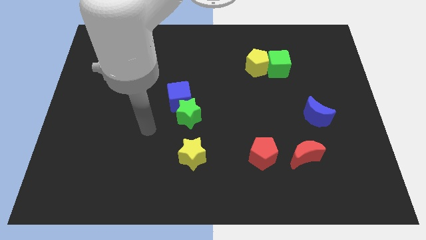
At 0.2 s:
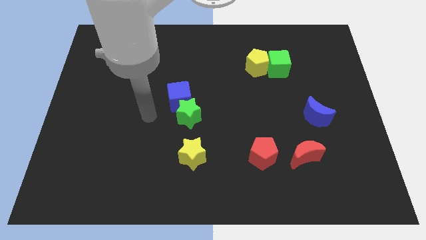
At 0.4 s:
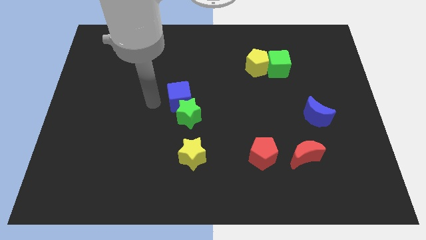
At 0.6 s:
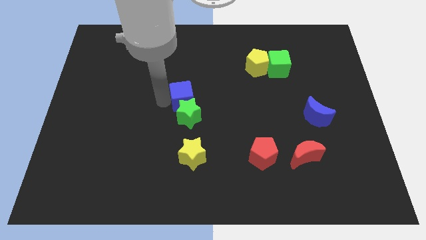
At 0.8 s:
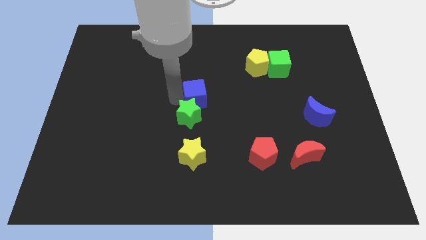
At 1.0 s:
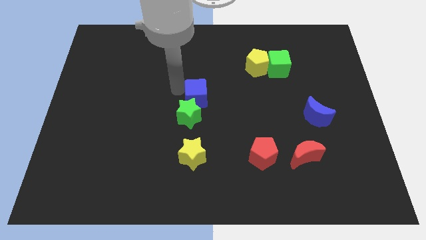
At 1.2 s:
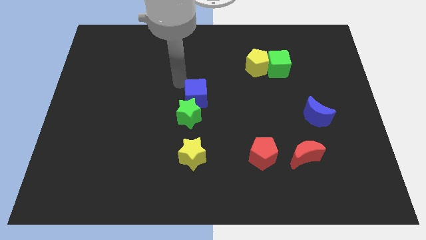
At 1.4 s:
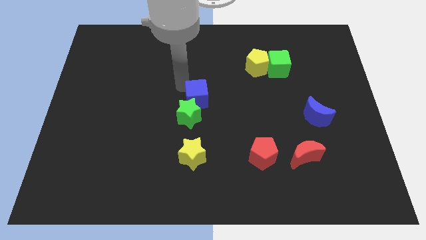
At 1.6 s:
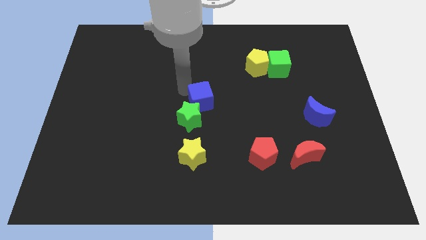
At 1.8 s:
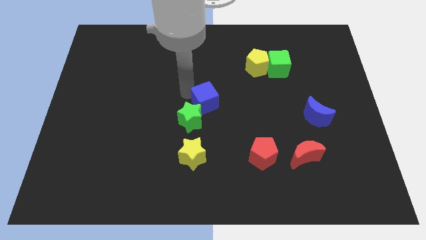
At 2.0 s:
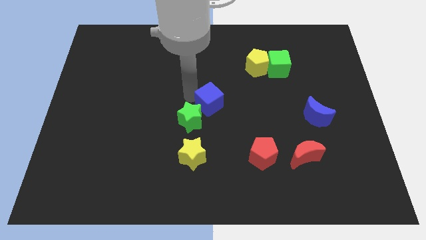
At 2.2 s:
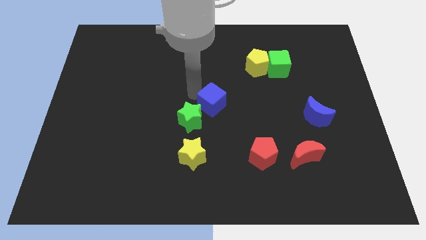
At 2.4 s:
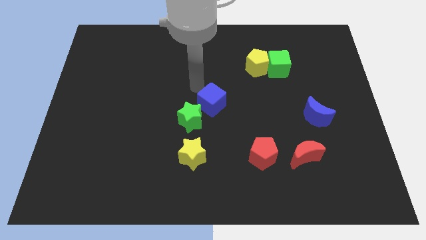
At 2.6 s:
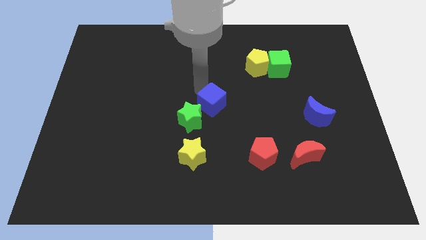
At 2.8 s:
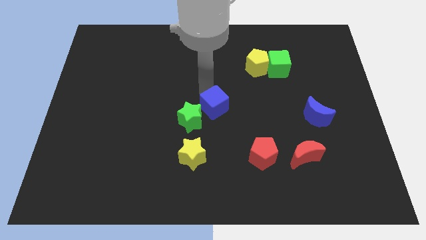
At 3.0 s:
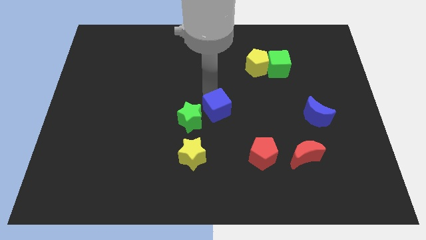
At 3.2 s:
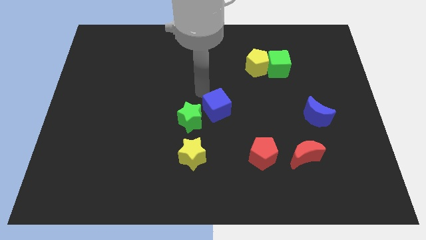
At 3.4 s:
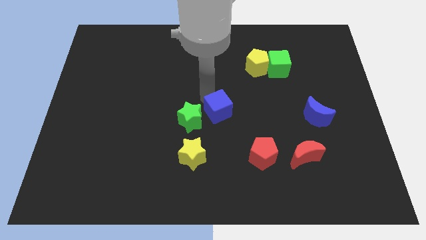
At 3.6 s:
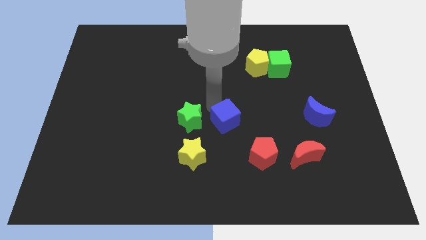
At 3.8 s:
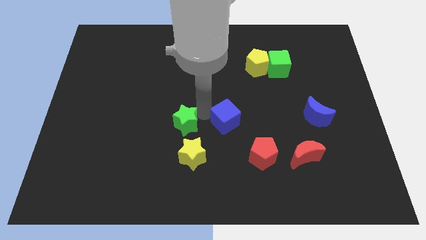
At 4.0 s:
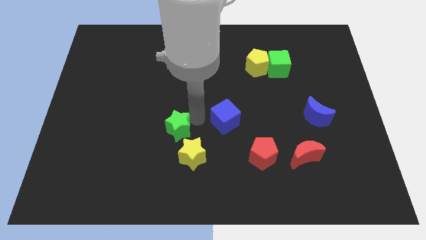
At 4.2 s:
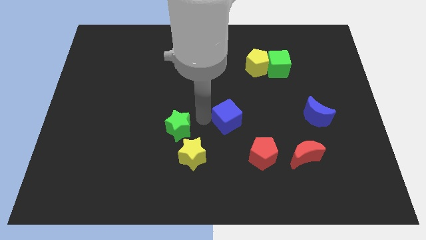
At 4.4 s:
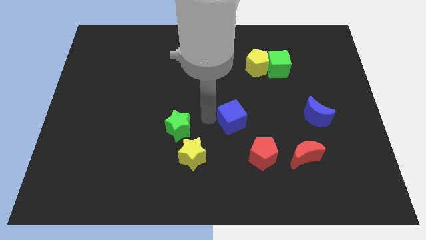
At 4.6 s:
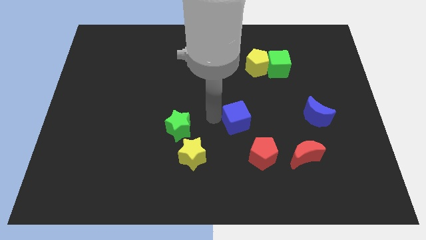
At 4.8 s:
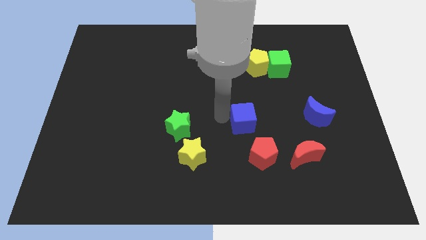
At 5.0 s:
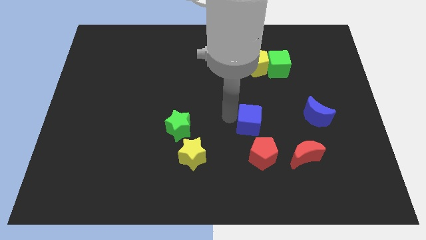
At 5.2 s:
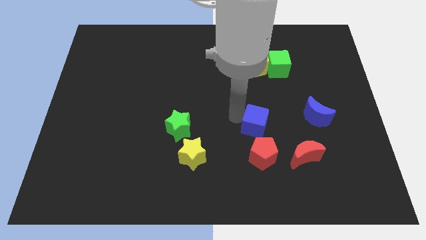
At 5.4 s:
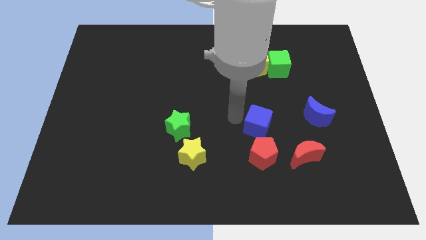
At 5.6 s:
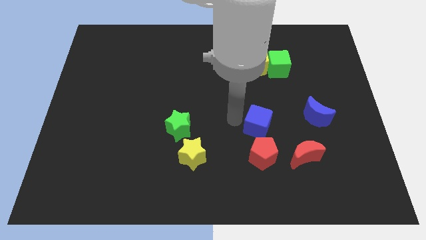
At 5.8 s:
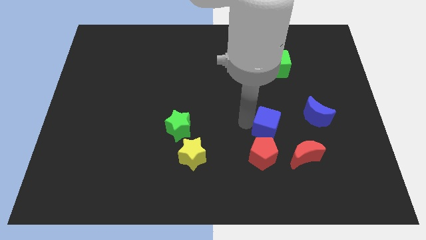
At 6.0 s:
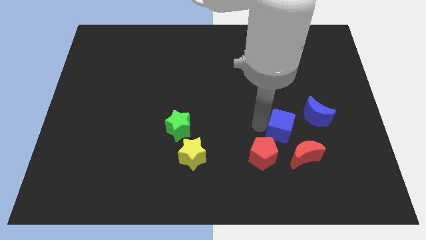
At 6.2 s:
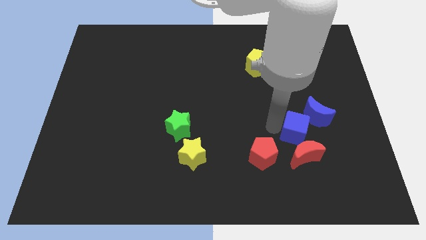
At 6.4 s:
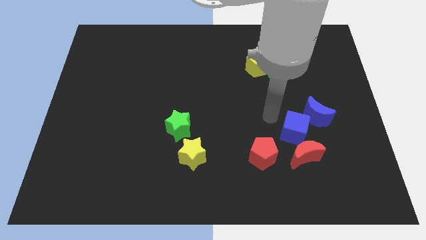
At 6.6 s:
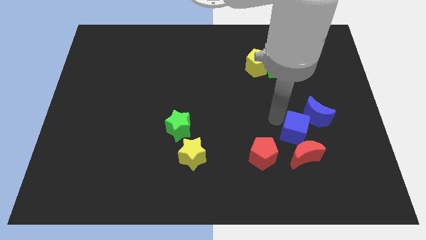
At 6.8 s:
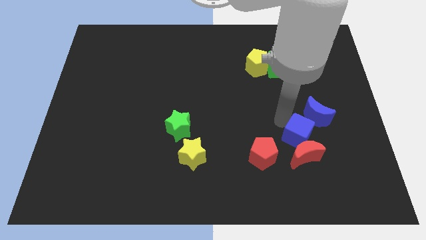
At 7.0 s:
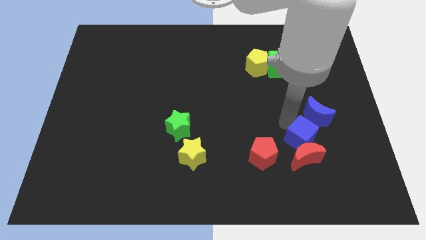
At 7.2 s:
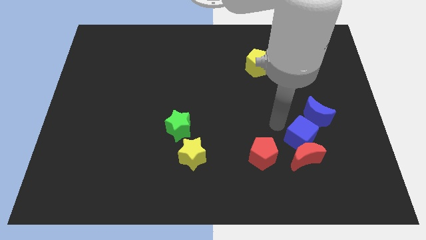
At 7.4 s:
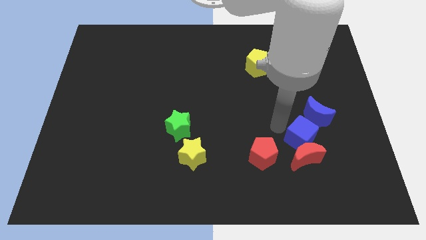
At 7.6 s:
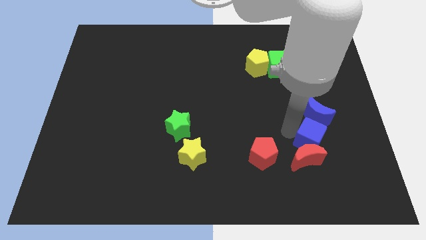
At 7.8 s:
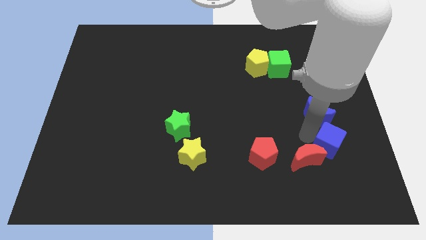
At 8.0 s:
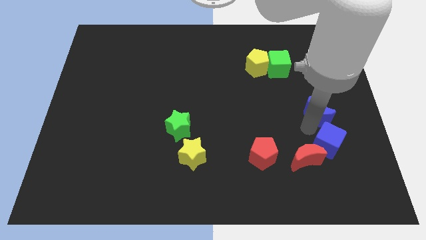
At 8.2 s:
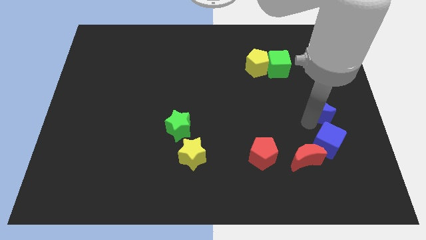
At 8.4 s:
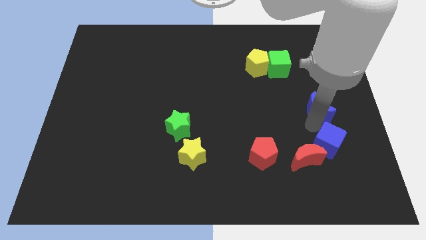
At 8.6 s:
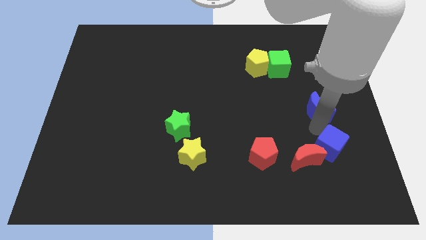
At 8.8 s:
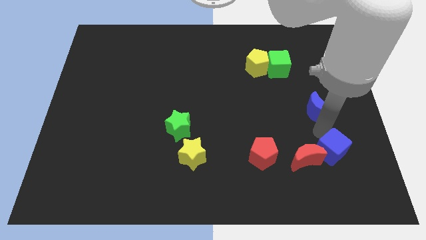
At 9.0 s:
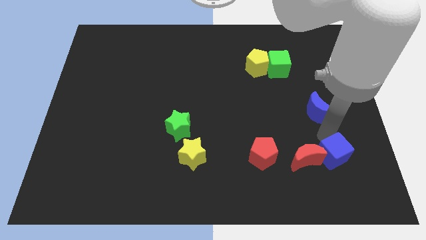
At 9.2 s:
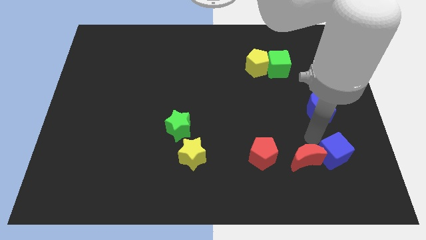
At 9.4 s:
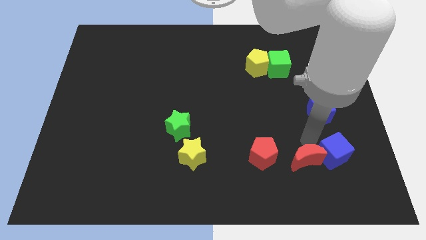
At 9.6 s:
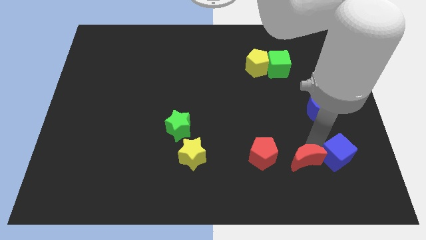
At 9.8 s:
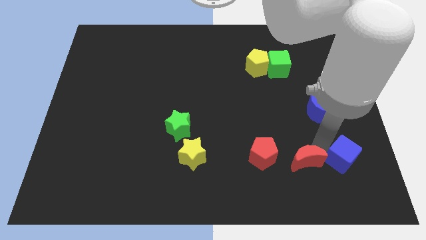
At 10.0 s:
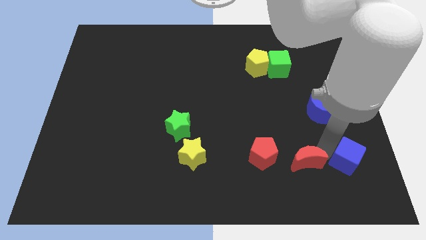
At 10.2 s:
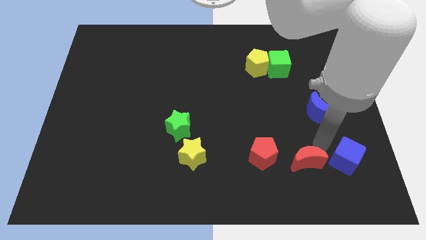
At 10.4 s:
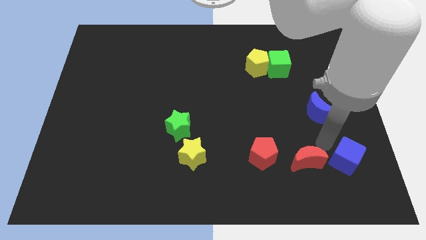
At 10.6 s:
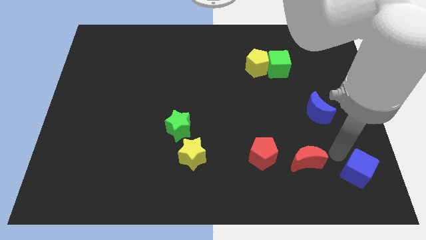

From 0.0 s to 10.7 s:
move the blue cube to the bottom right corner

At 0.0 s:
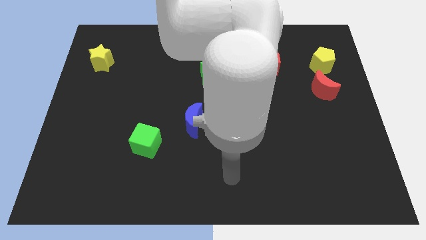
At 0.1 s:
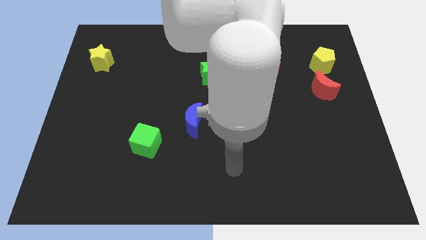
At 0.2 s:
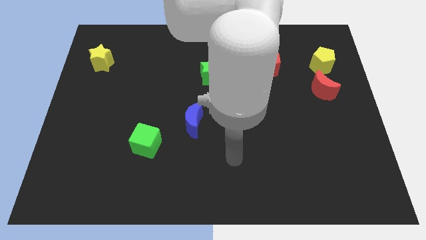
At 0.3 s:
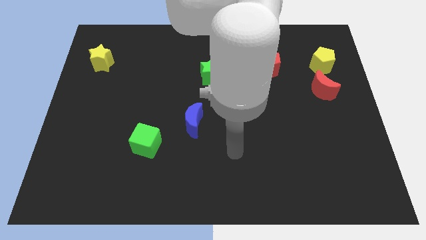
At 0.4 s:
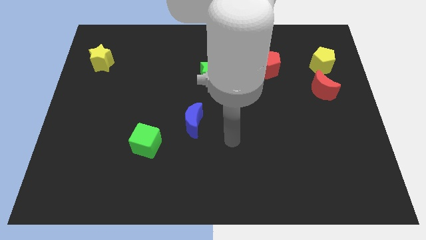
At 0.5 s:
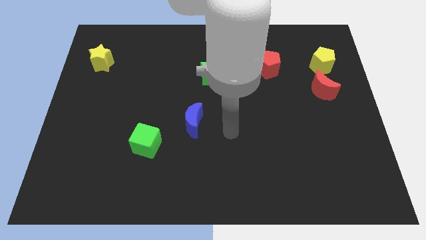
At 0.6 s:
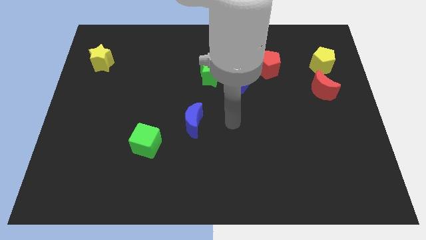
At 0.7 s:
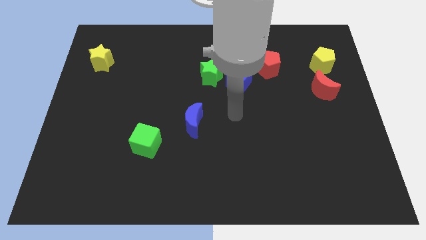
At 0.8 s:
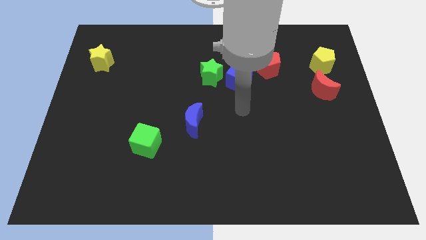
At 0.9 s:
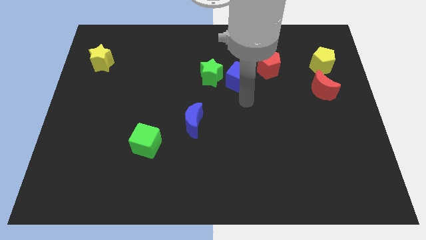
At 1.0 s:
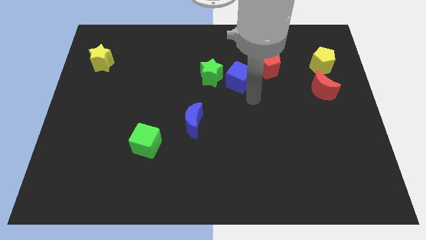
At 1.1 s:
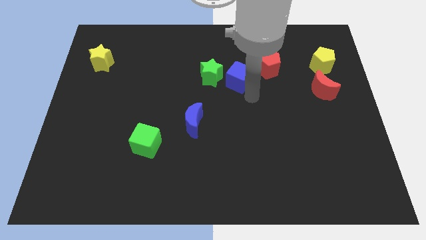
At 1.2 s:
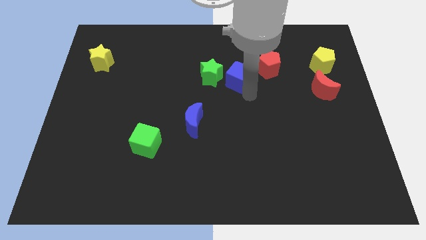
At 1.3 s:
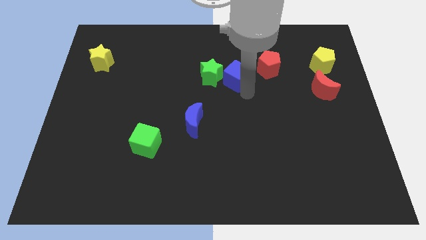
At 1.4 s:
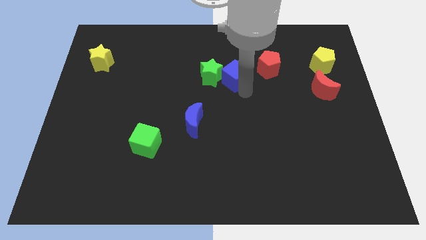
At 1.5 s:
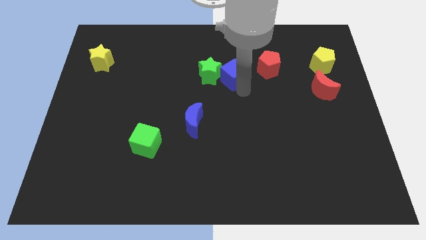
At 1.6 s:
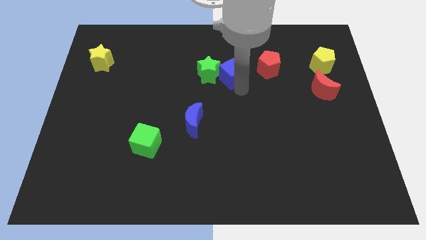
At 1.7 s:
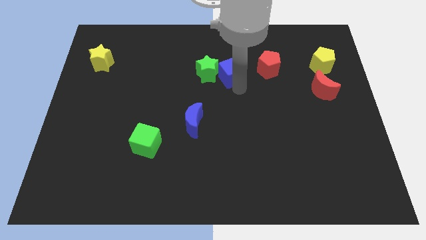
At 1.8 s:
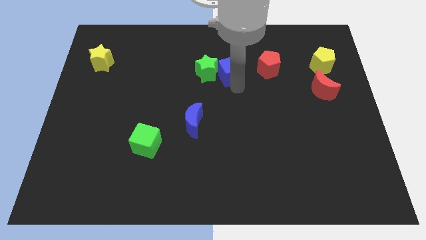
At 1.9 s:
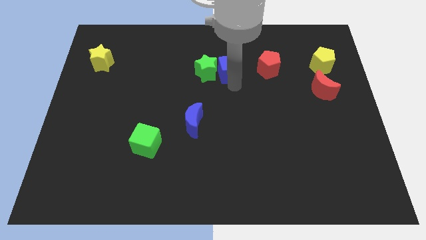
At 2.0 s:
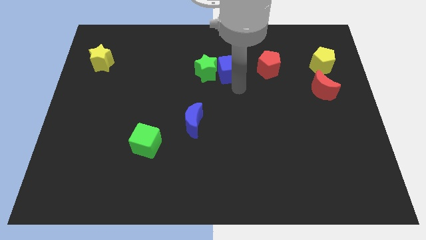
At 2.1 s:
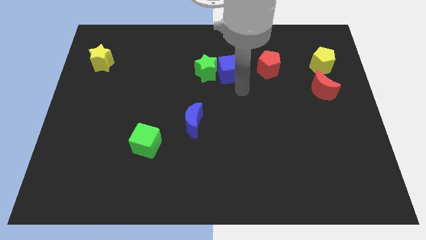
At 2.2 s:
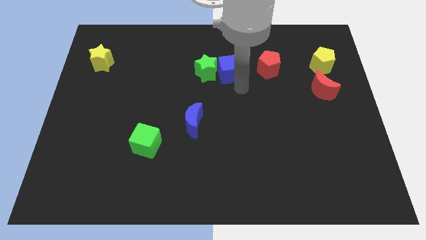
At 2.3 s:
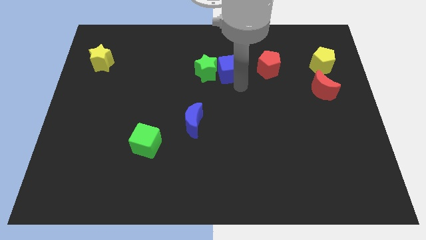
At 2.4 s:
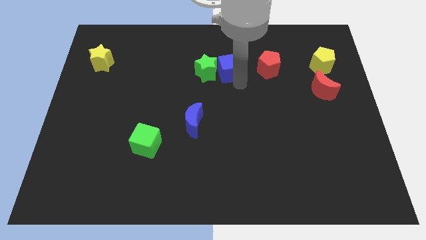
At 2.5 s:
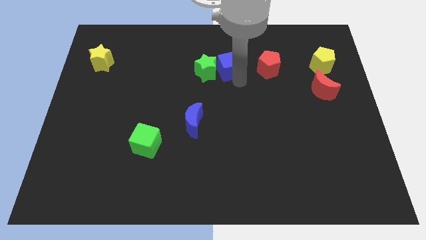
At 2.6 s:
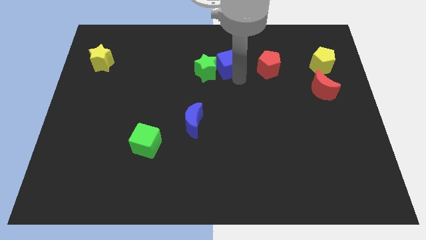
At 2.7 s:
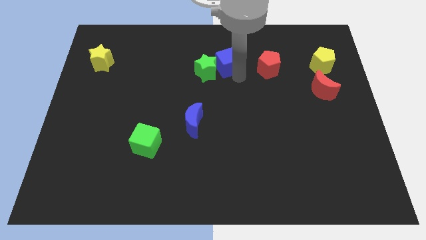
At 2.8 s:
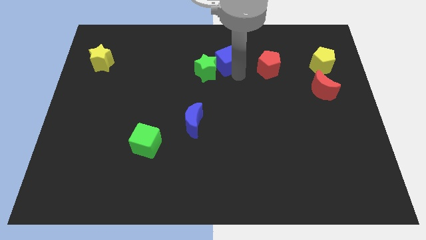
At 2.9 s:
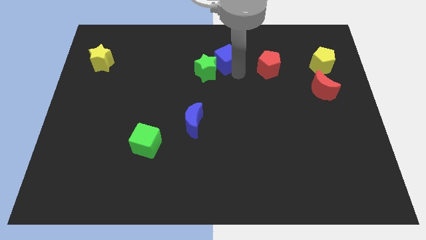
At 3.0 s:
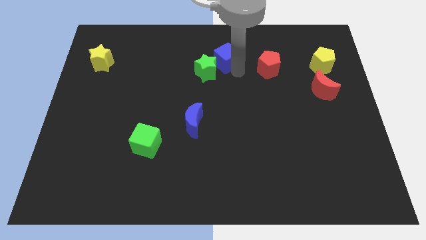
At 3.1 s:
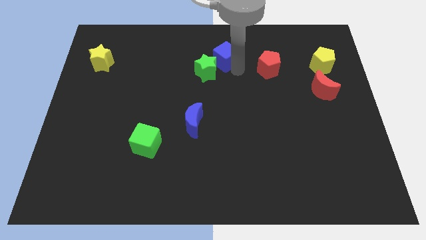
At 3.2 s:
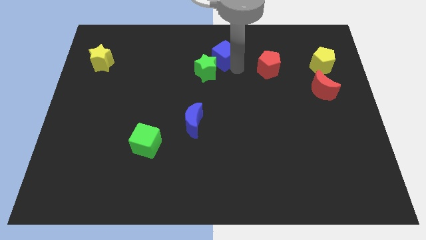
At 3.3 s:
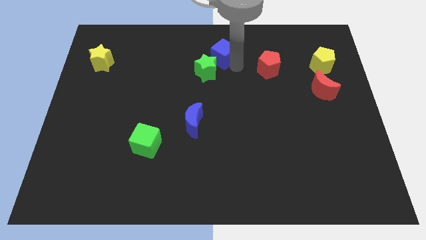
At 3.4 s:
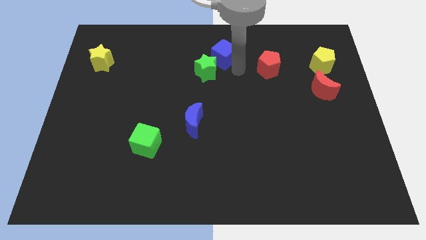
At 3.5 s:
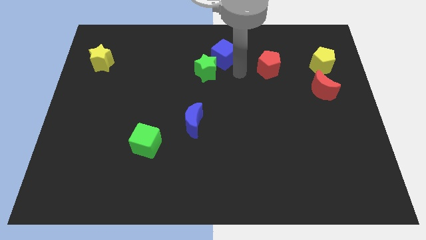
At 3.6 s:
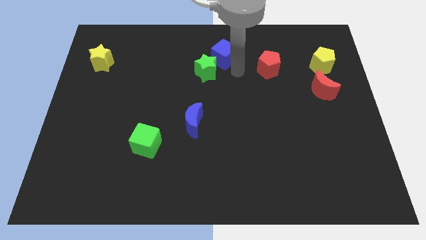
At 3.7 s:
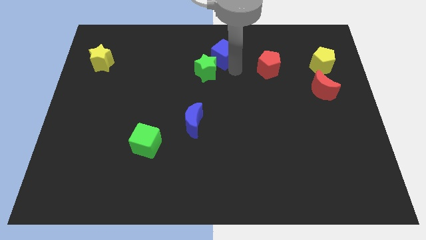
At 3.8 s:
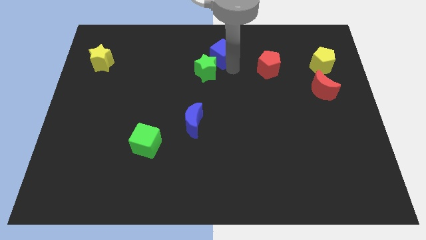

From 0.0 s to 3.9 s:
push the blue cube to the towards your base
